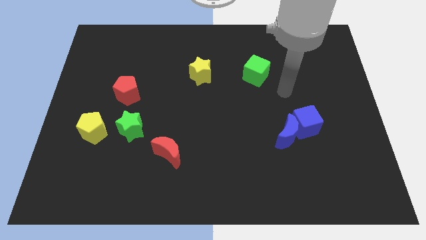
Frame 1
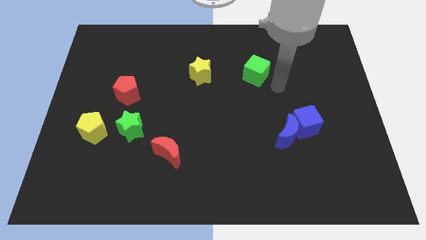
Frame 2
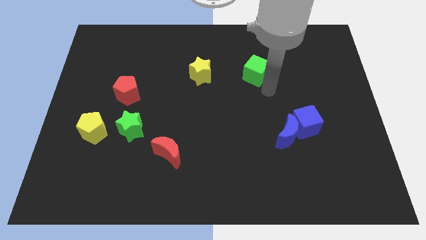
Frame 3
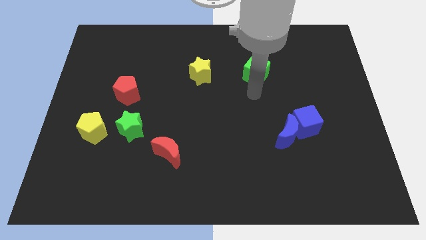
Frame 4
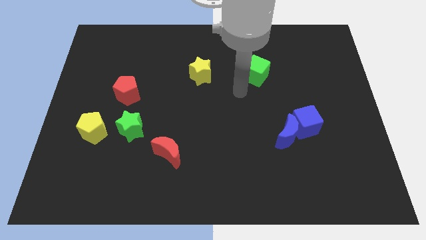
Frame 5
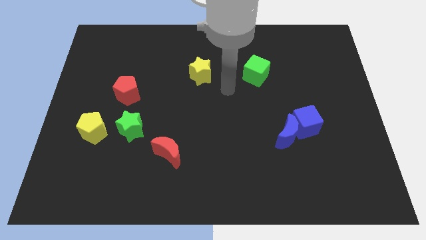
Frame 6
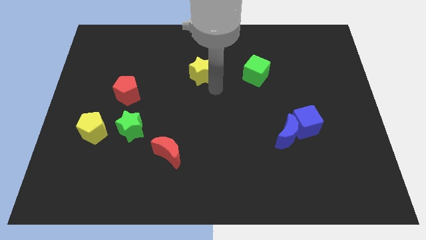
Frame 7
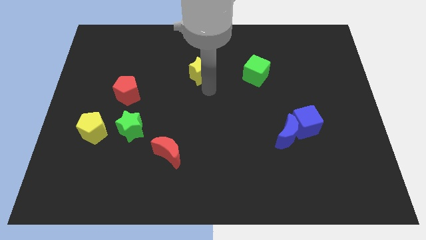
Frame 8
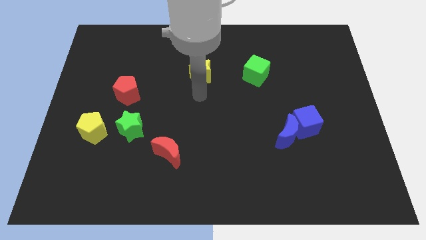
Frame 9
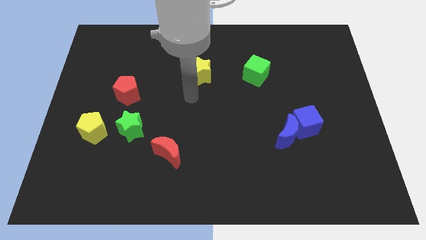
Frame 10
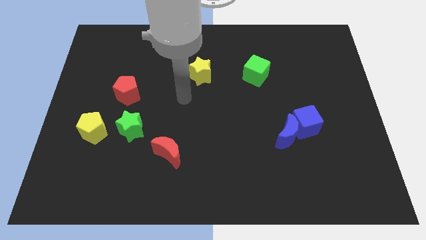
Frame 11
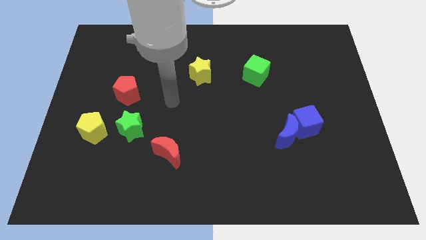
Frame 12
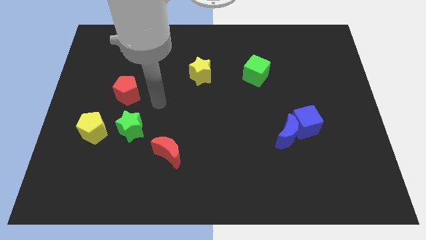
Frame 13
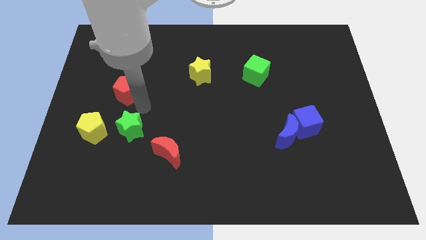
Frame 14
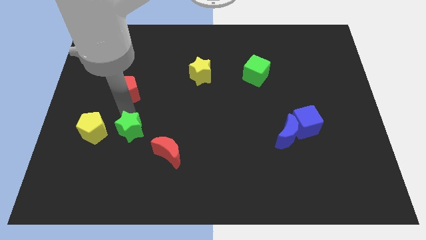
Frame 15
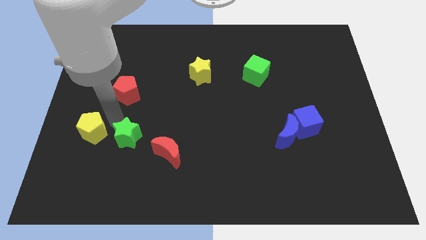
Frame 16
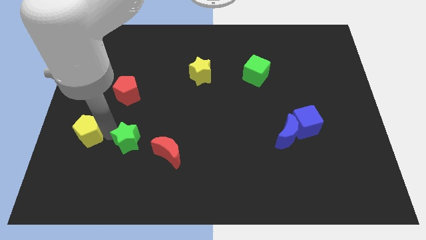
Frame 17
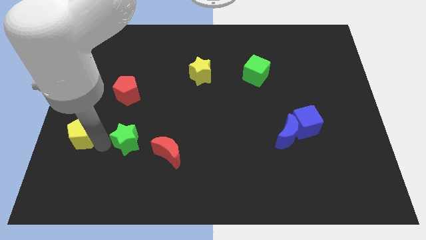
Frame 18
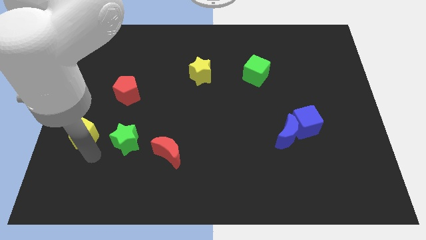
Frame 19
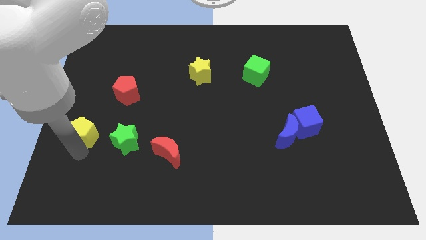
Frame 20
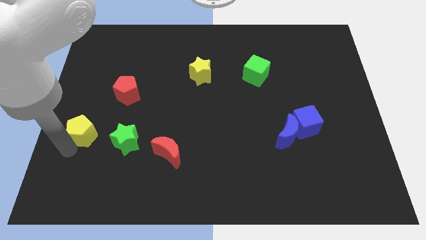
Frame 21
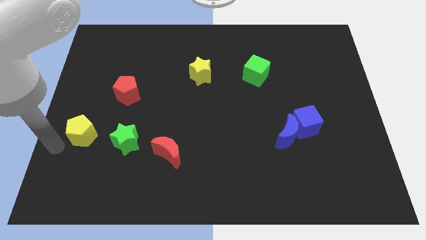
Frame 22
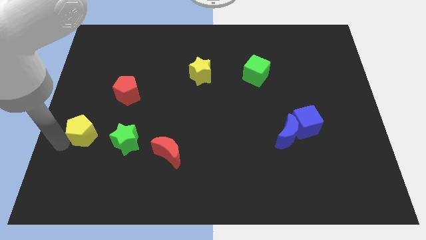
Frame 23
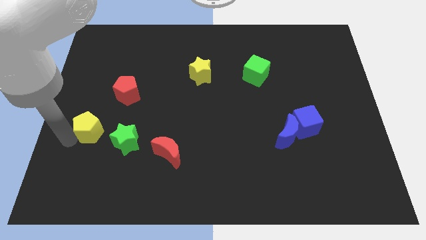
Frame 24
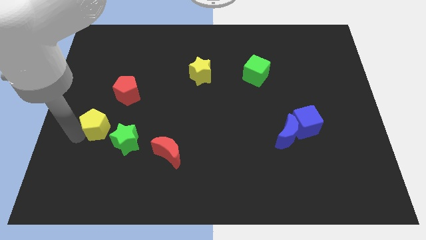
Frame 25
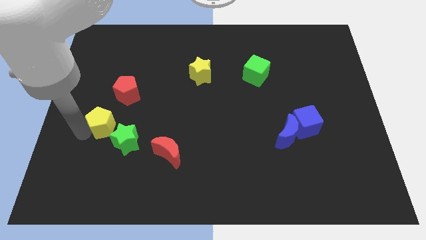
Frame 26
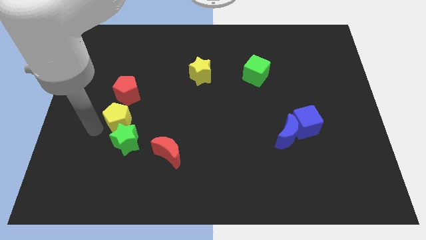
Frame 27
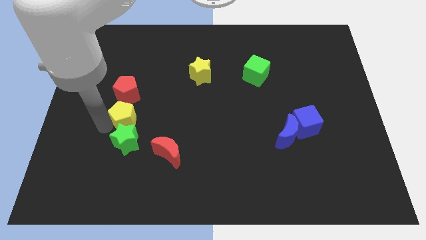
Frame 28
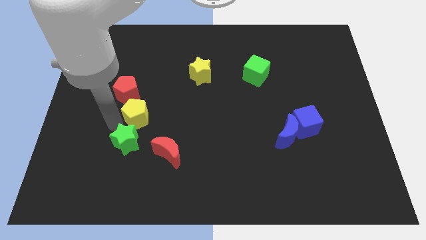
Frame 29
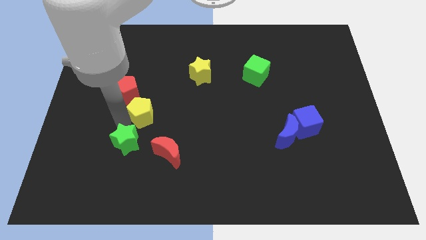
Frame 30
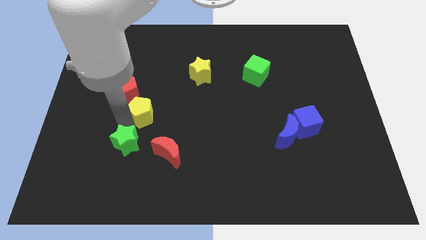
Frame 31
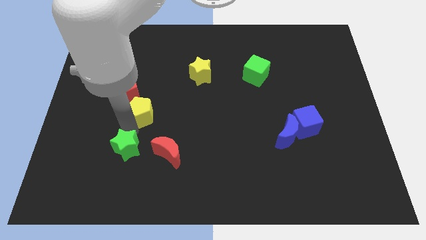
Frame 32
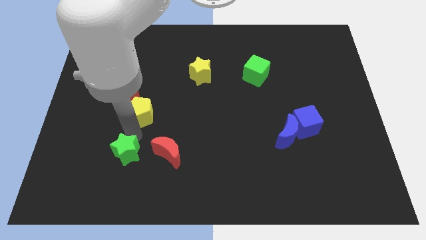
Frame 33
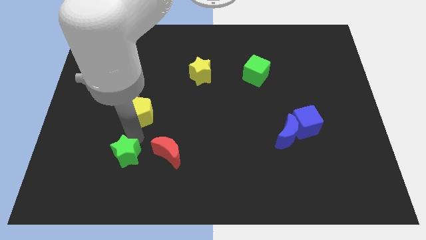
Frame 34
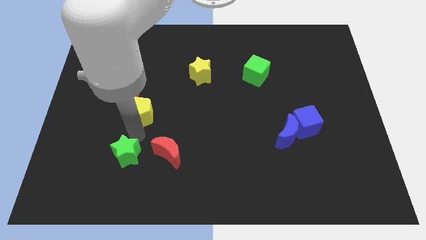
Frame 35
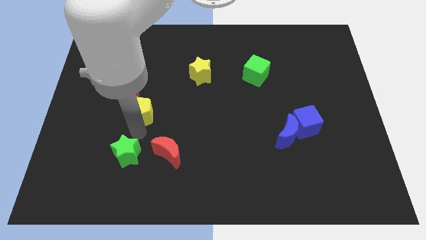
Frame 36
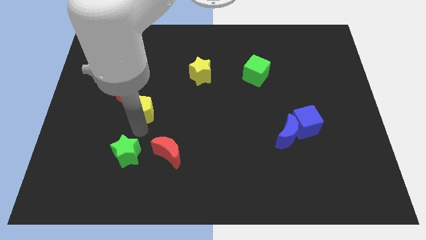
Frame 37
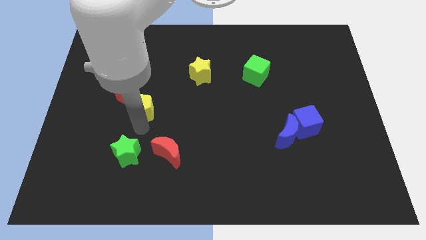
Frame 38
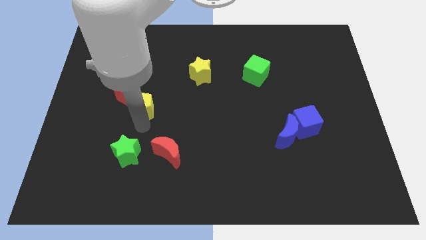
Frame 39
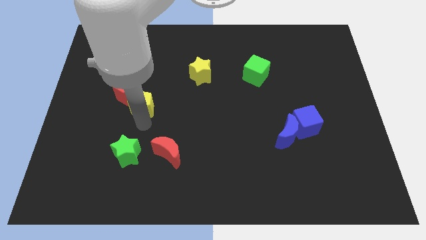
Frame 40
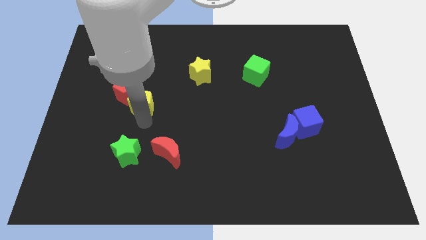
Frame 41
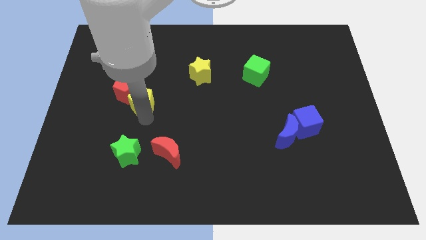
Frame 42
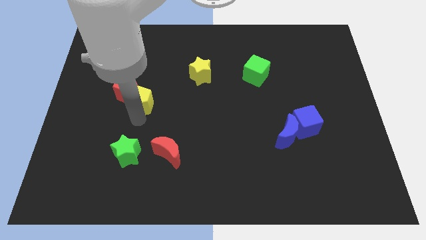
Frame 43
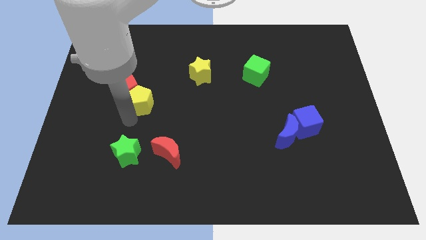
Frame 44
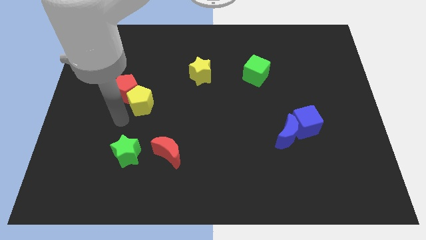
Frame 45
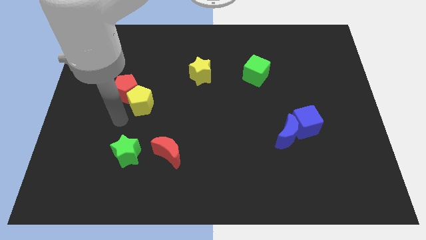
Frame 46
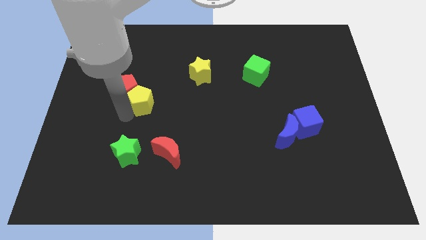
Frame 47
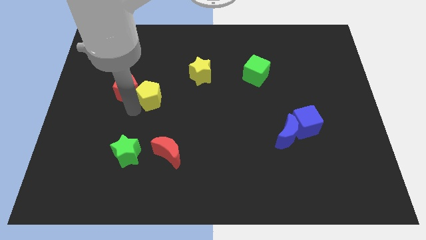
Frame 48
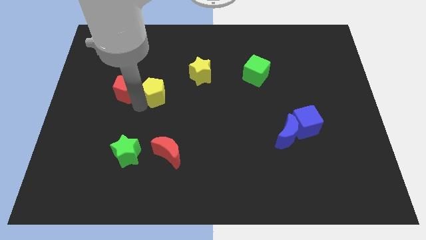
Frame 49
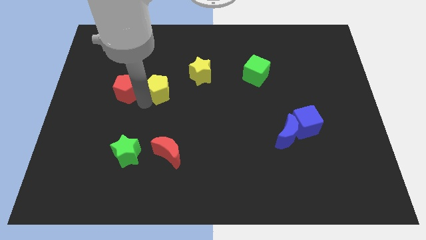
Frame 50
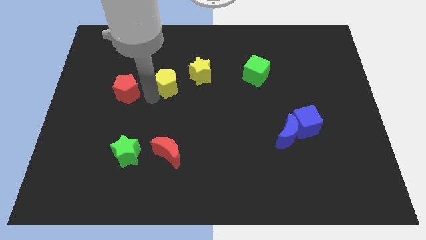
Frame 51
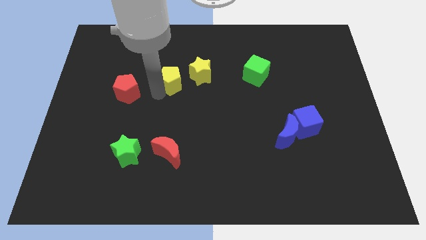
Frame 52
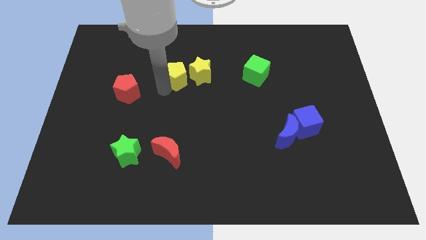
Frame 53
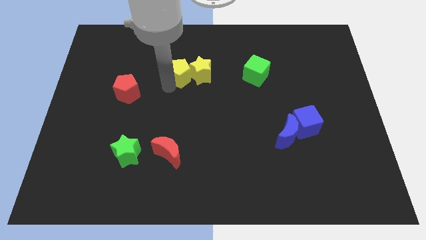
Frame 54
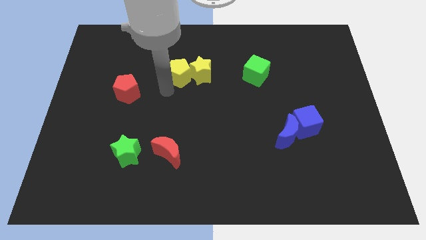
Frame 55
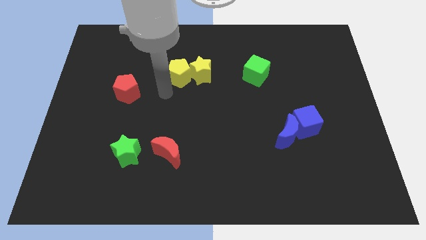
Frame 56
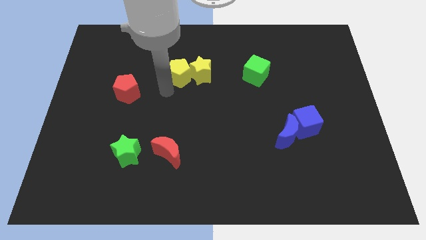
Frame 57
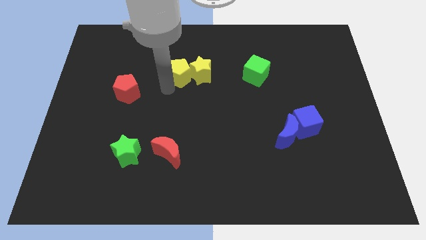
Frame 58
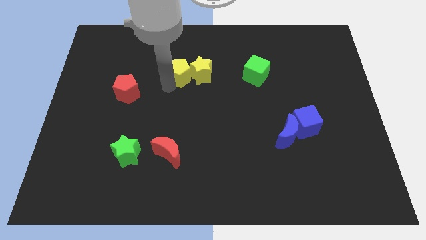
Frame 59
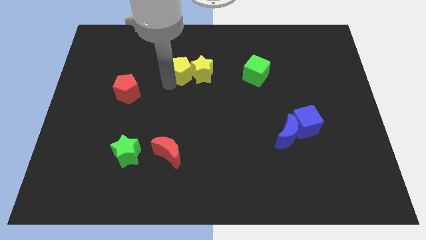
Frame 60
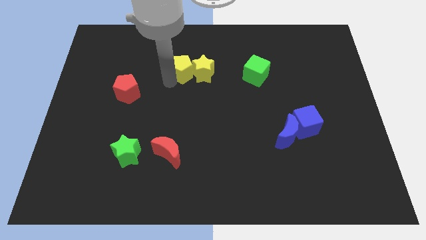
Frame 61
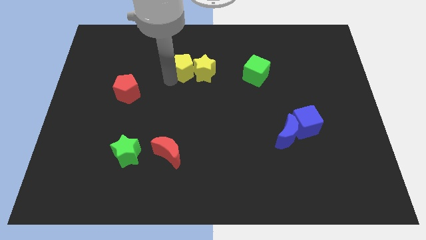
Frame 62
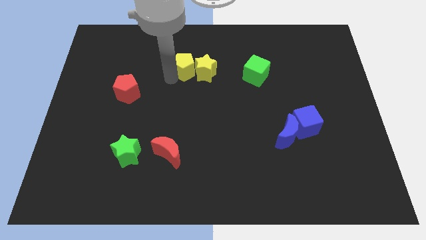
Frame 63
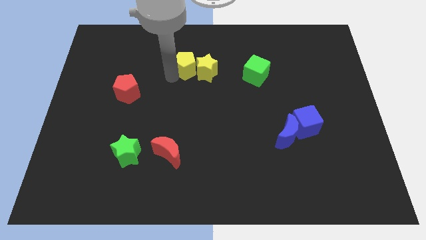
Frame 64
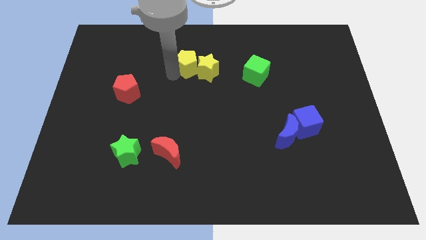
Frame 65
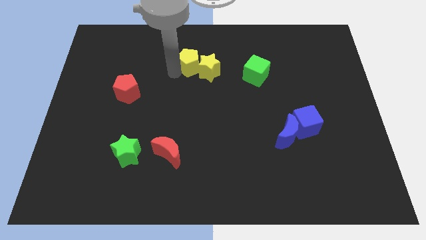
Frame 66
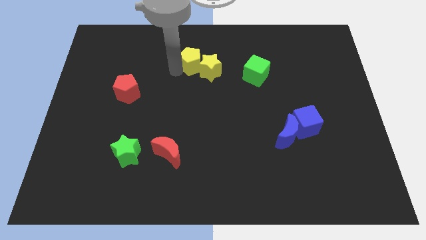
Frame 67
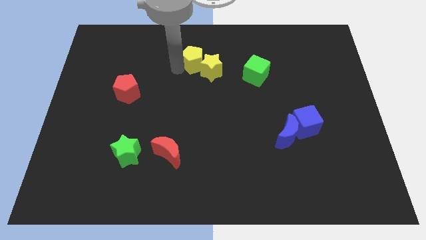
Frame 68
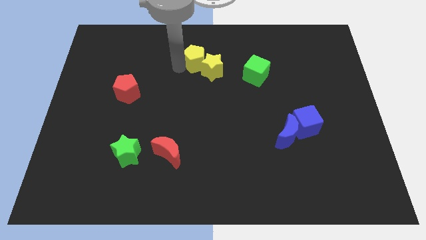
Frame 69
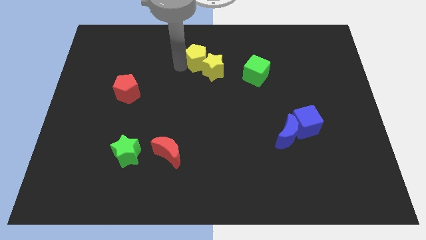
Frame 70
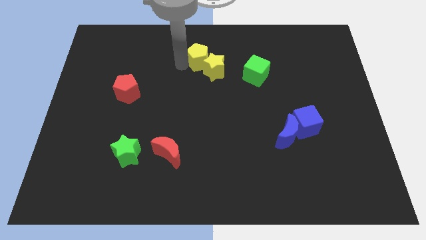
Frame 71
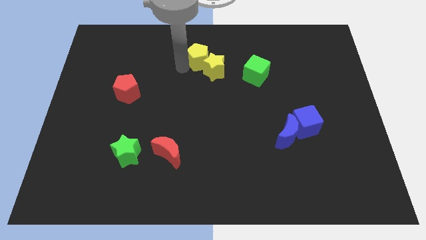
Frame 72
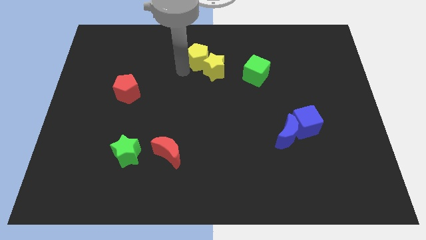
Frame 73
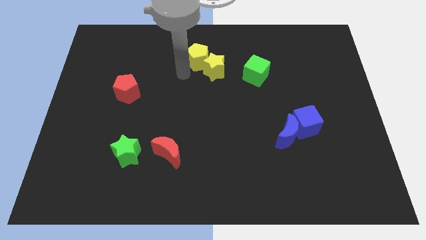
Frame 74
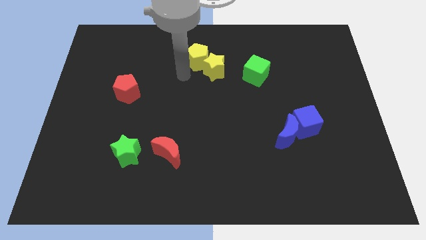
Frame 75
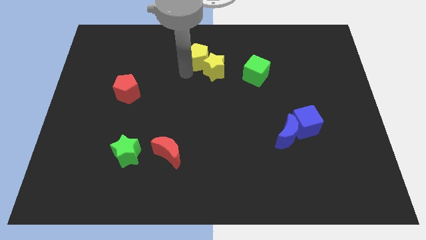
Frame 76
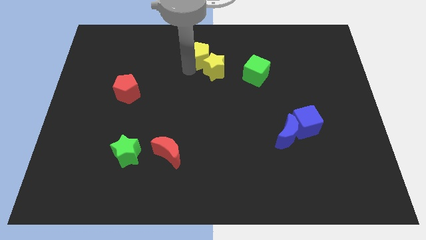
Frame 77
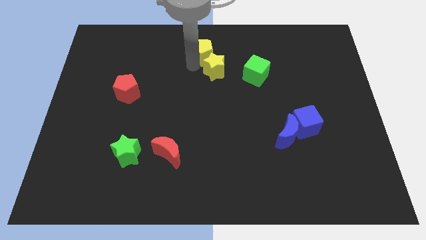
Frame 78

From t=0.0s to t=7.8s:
put the yellow pentagon to the top
